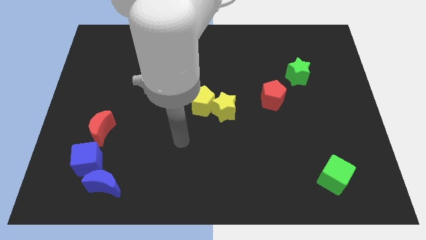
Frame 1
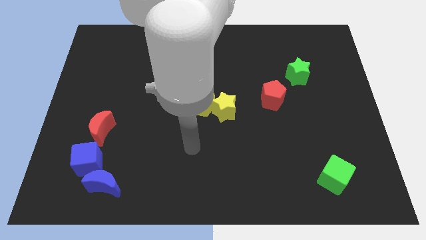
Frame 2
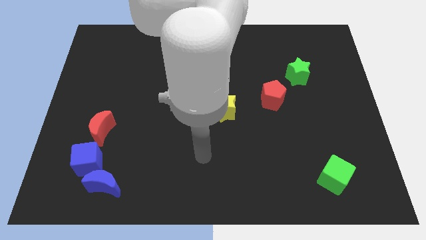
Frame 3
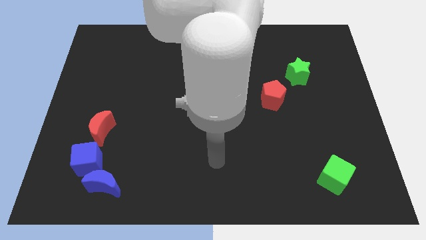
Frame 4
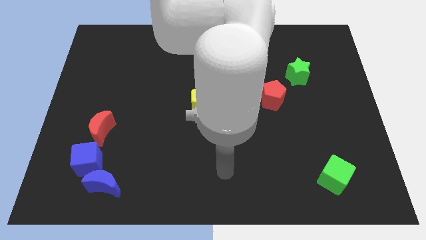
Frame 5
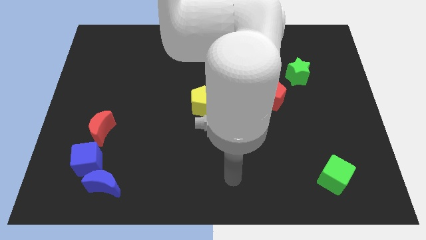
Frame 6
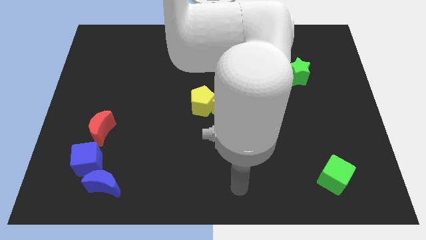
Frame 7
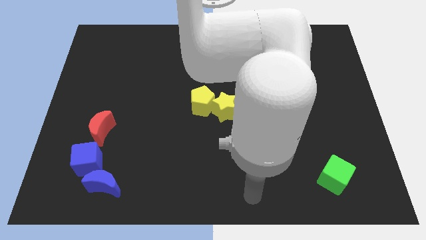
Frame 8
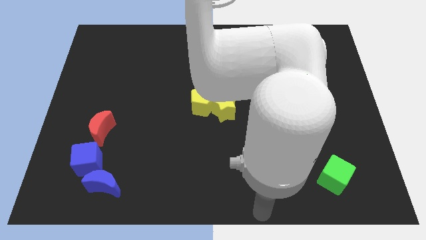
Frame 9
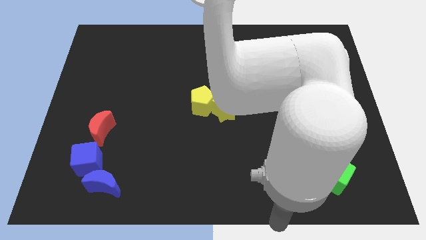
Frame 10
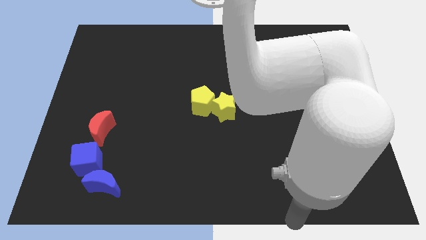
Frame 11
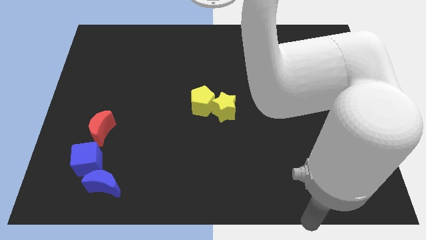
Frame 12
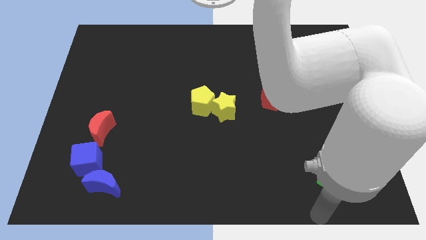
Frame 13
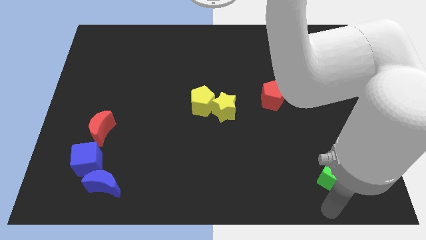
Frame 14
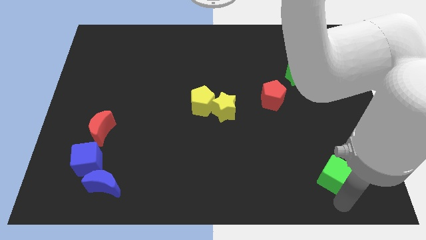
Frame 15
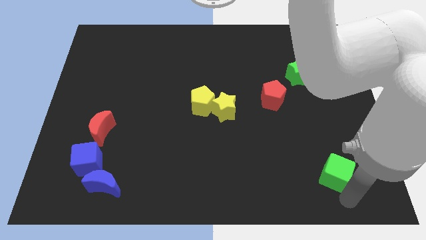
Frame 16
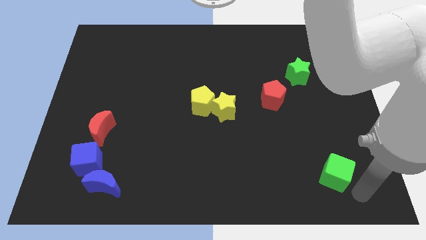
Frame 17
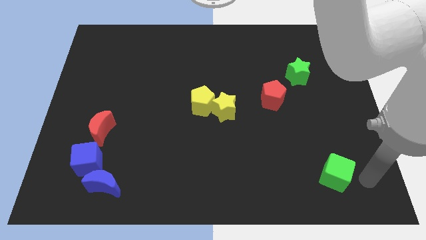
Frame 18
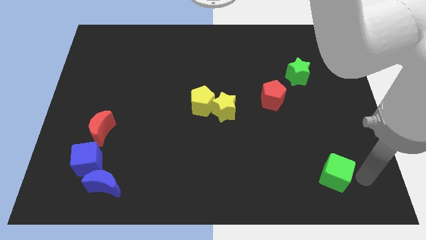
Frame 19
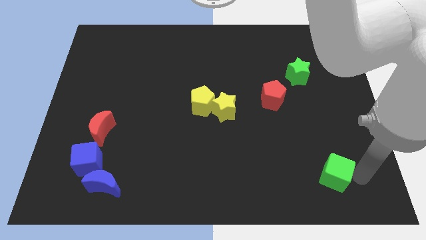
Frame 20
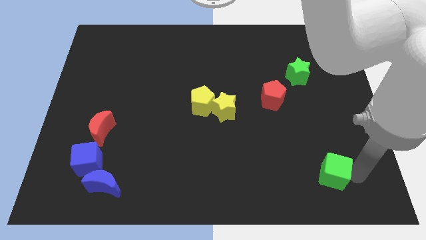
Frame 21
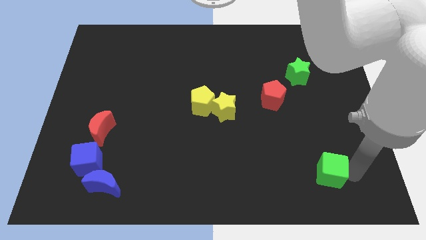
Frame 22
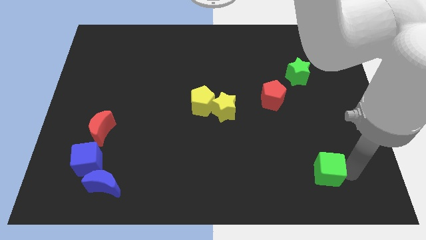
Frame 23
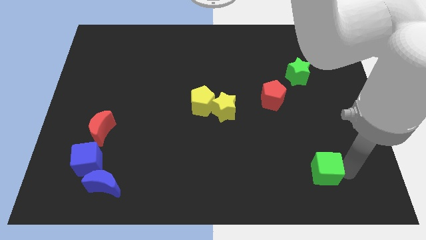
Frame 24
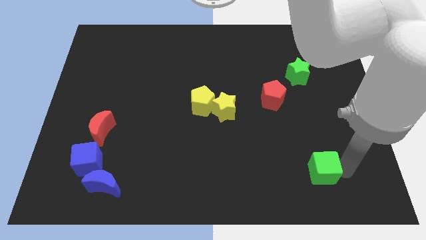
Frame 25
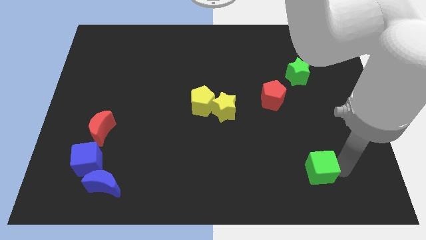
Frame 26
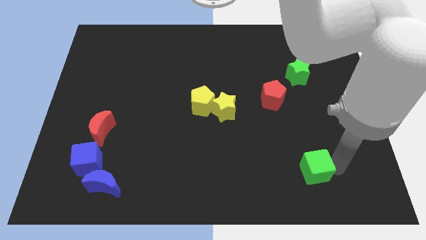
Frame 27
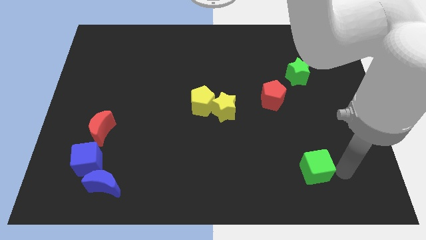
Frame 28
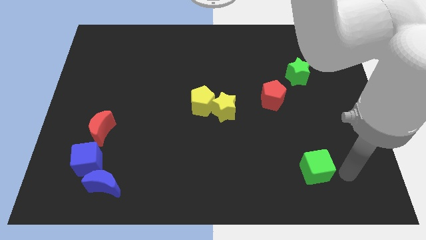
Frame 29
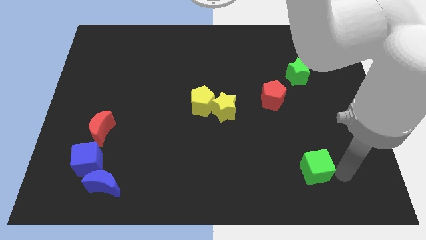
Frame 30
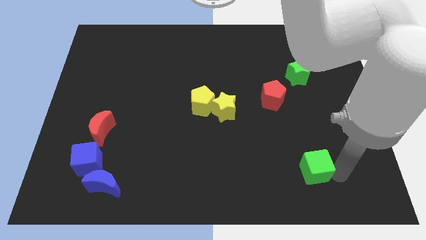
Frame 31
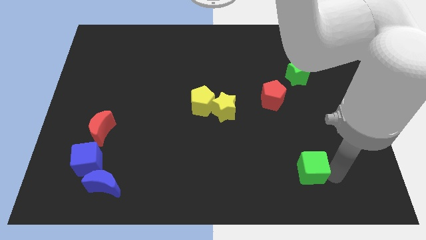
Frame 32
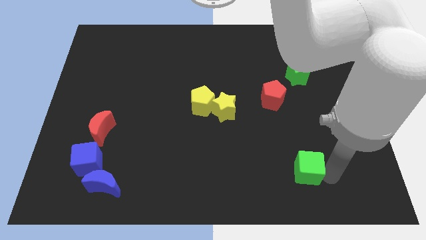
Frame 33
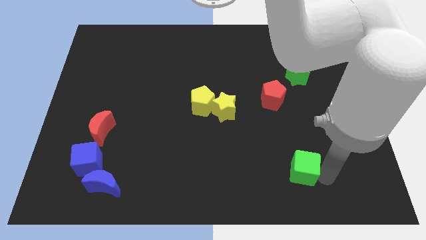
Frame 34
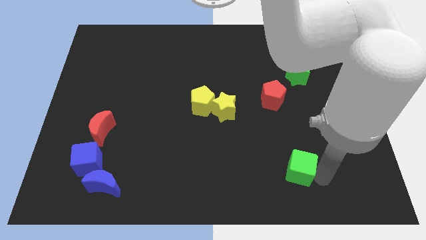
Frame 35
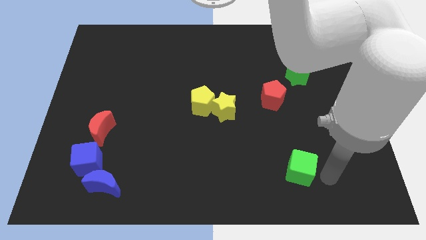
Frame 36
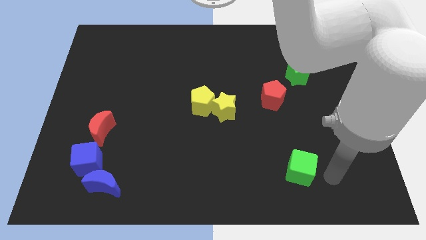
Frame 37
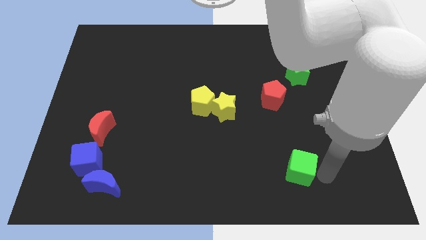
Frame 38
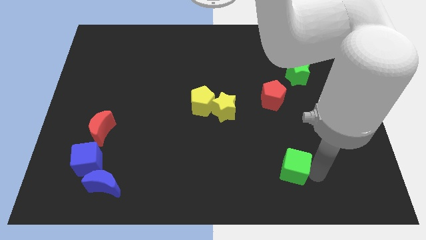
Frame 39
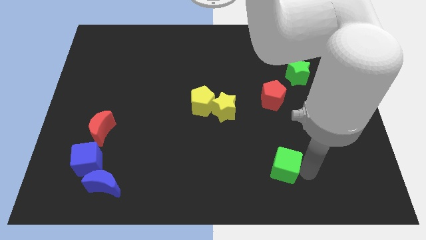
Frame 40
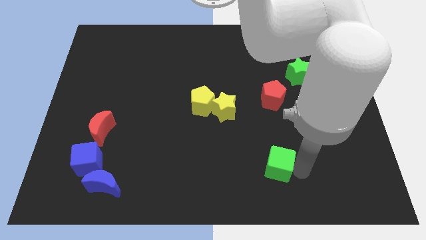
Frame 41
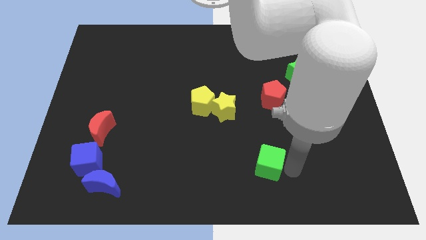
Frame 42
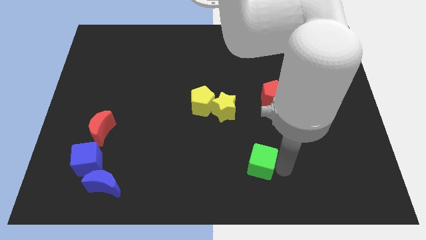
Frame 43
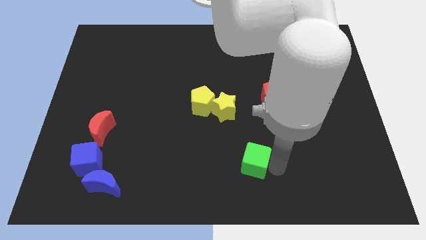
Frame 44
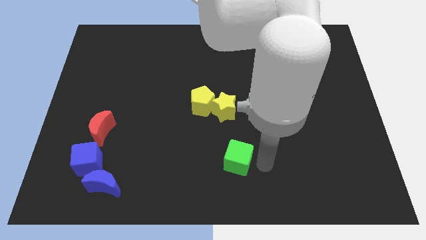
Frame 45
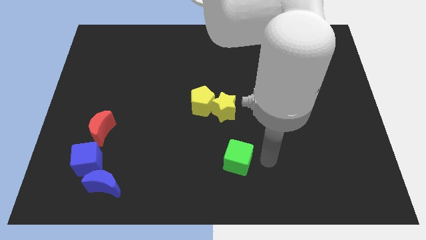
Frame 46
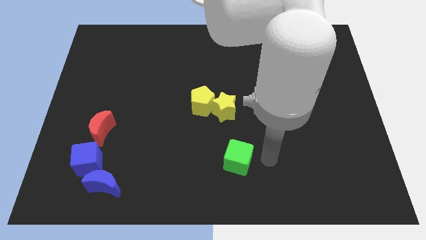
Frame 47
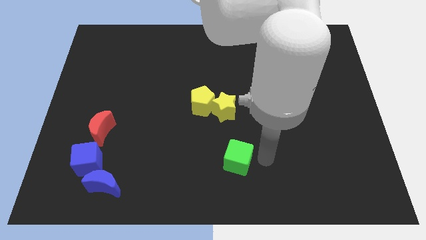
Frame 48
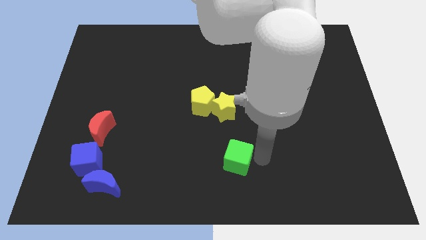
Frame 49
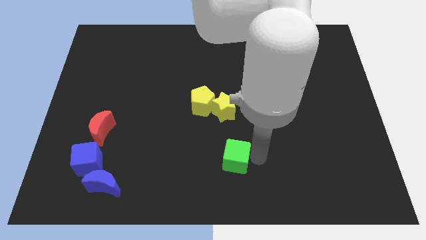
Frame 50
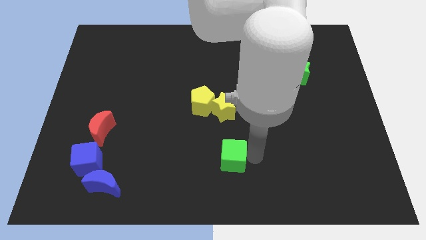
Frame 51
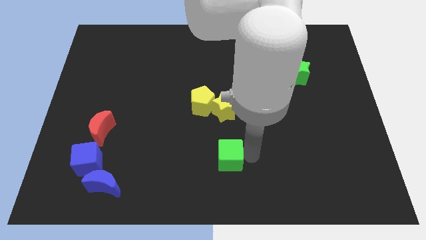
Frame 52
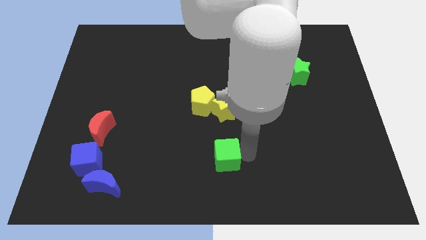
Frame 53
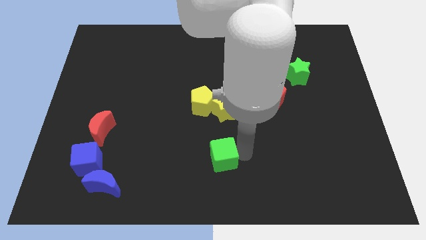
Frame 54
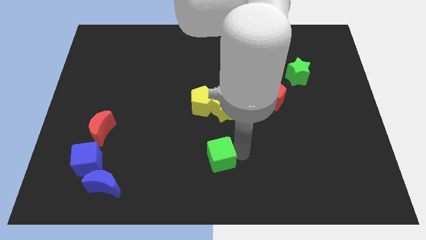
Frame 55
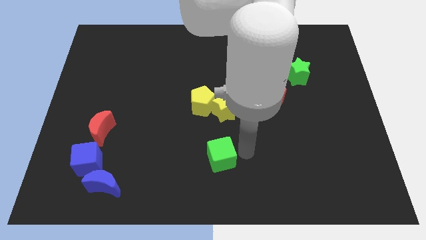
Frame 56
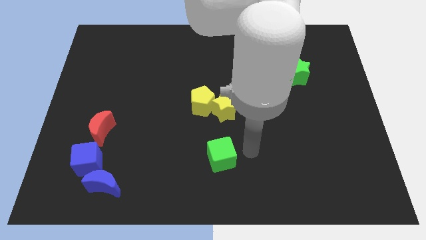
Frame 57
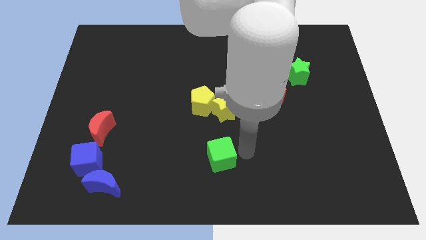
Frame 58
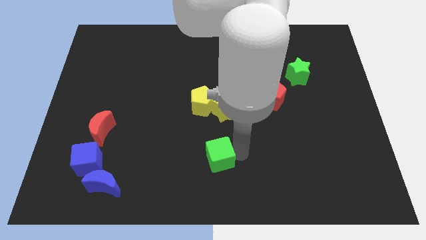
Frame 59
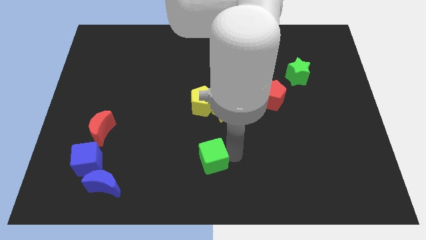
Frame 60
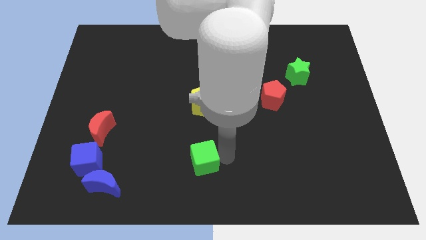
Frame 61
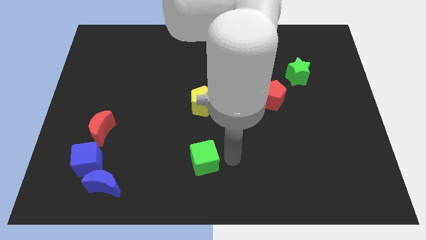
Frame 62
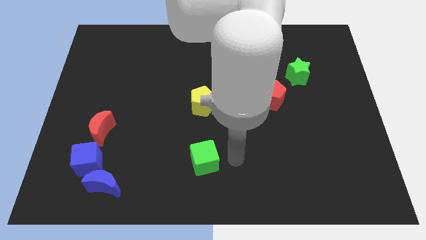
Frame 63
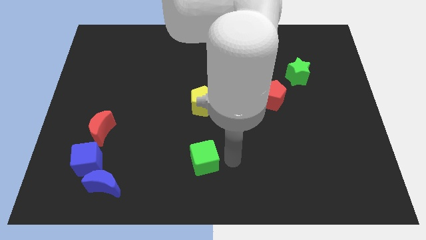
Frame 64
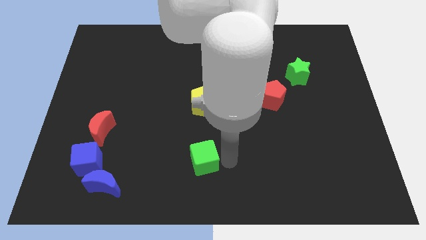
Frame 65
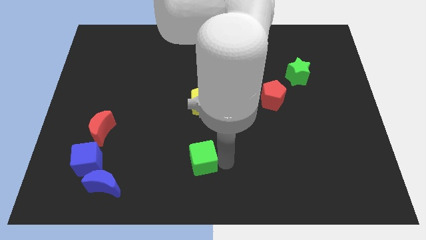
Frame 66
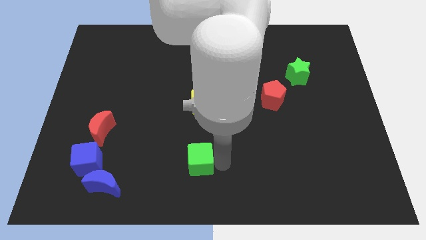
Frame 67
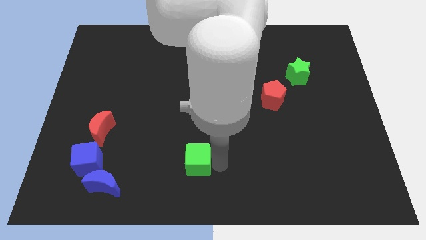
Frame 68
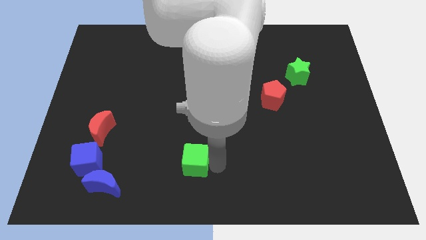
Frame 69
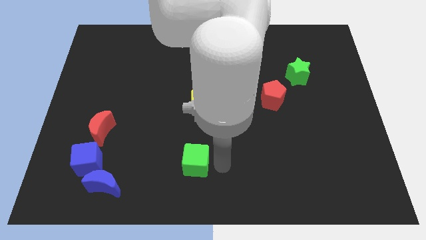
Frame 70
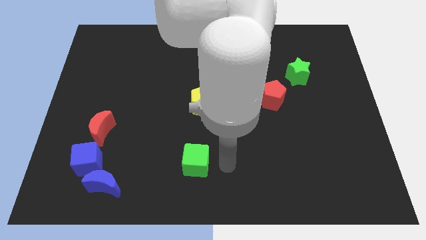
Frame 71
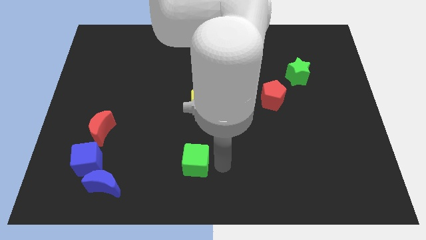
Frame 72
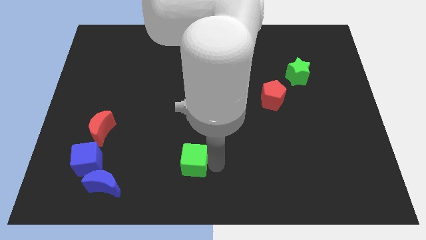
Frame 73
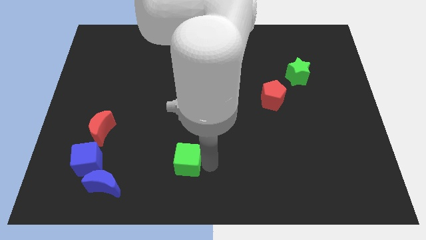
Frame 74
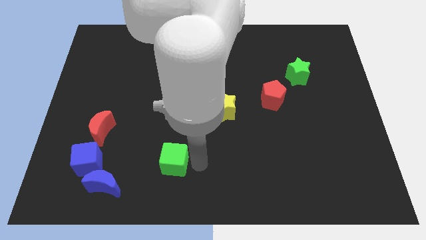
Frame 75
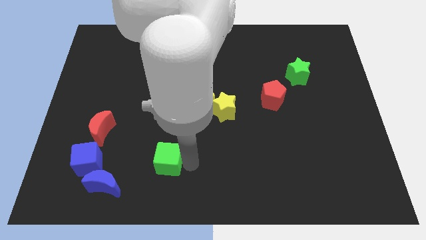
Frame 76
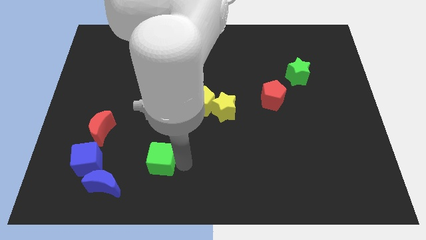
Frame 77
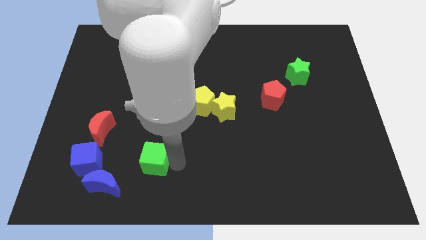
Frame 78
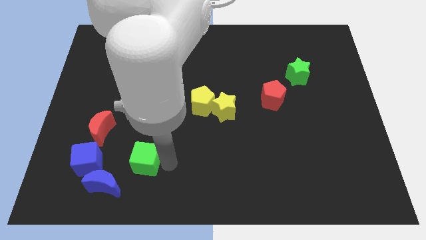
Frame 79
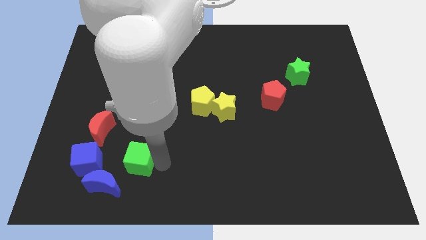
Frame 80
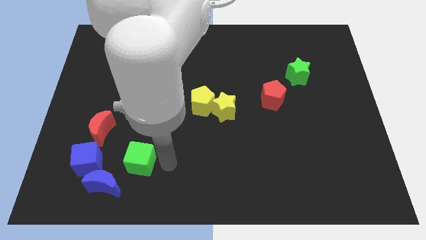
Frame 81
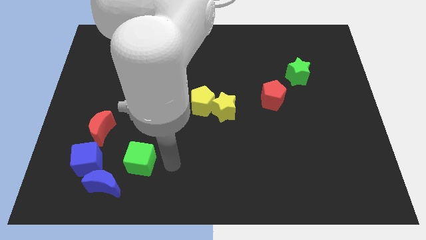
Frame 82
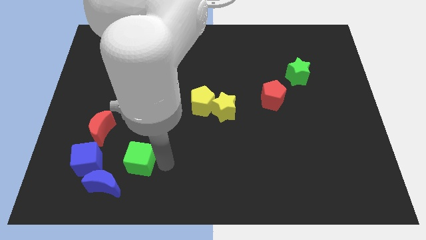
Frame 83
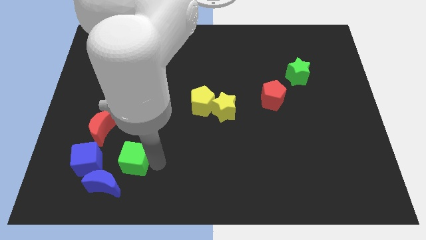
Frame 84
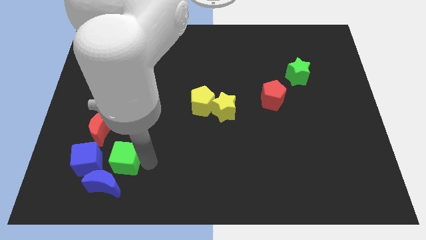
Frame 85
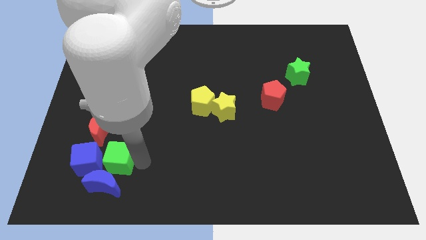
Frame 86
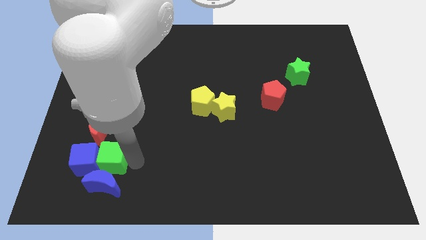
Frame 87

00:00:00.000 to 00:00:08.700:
push the green cube close to the blue cube
